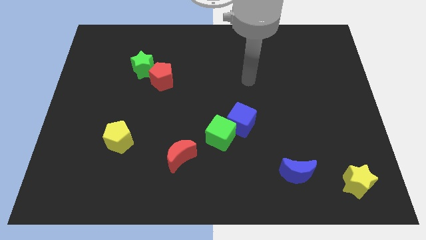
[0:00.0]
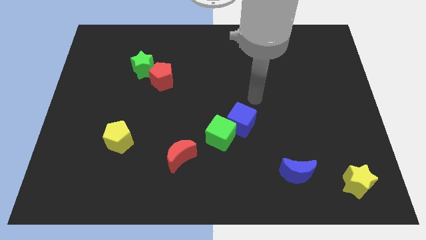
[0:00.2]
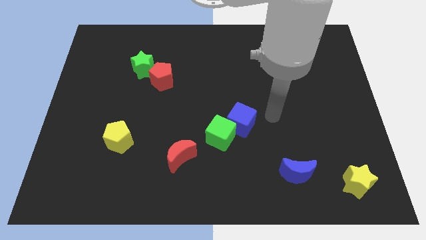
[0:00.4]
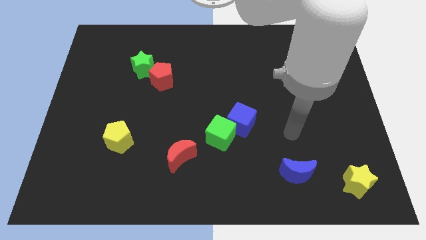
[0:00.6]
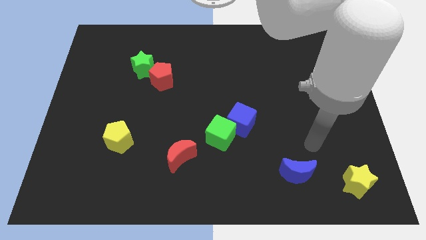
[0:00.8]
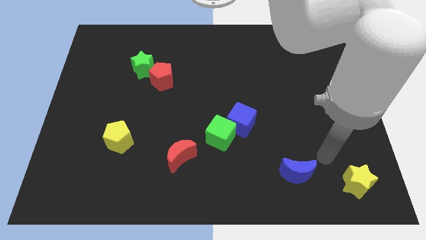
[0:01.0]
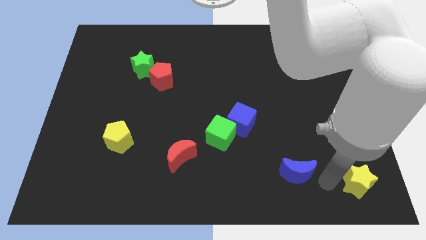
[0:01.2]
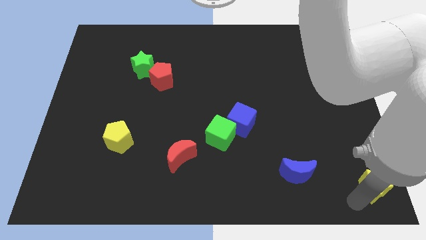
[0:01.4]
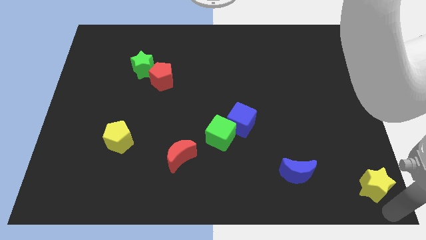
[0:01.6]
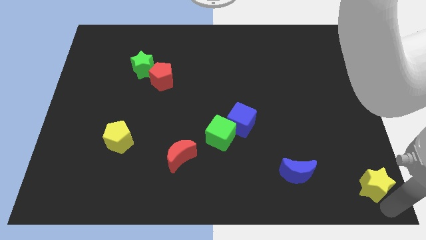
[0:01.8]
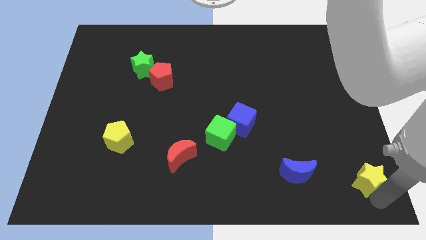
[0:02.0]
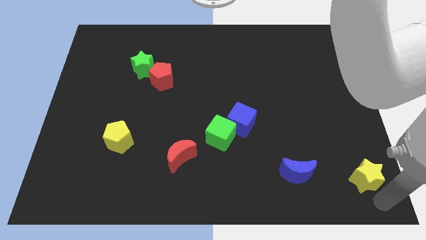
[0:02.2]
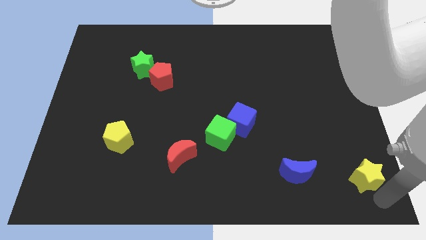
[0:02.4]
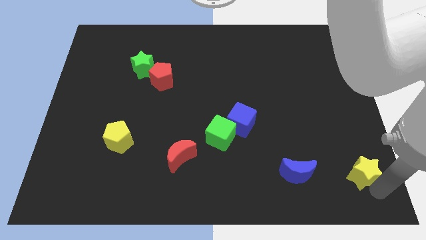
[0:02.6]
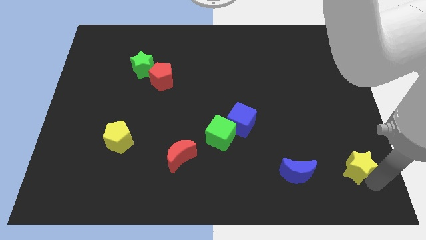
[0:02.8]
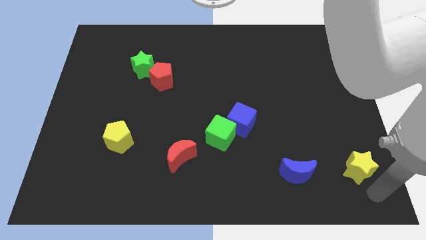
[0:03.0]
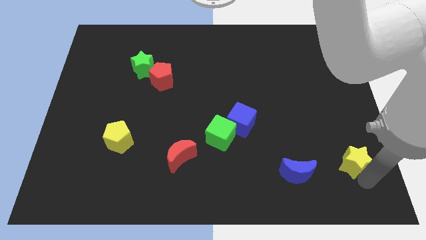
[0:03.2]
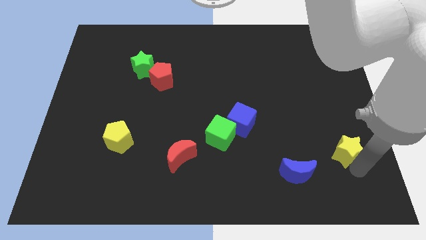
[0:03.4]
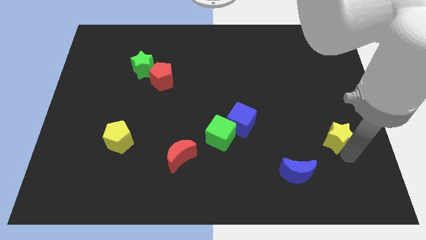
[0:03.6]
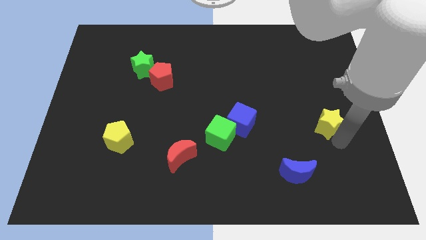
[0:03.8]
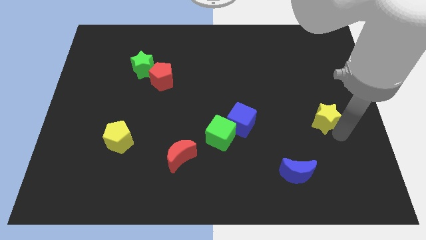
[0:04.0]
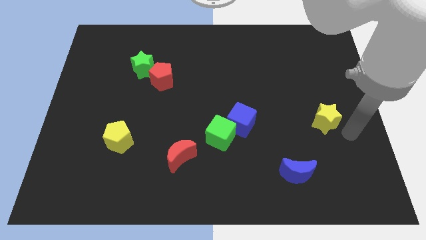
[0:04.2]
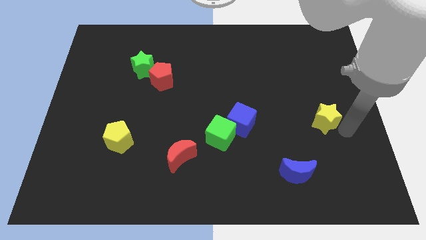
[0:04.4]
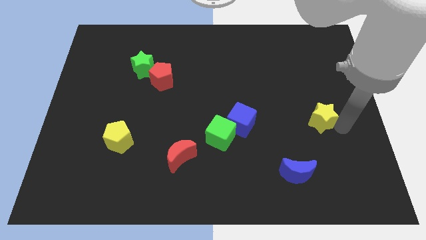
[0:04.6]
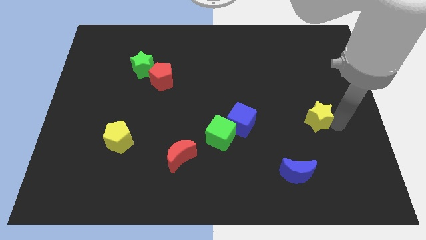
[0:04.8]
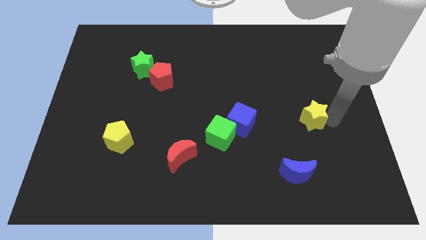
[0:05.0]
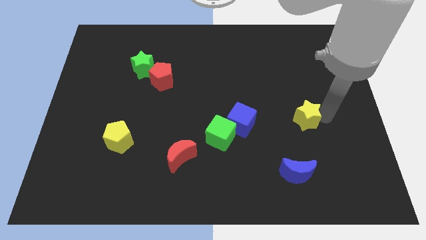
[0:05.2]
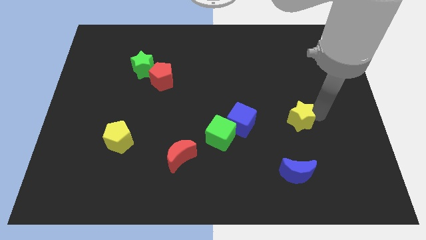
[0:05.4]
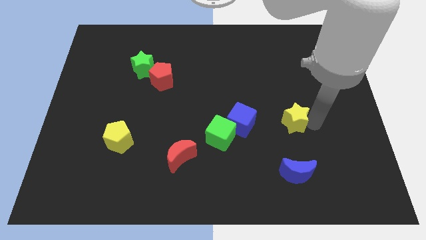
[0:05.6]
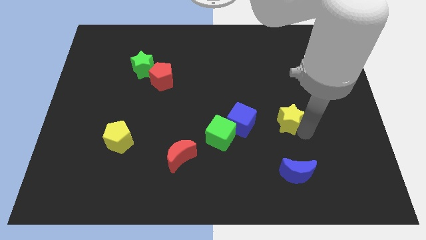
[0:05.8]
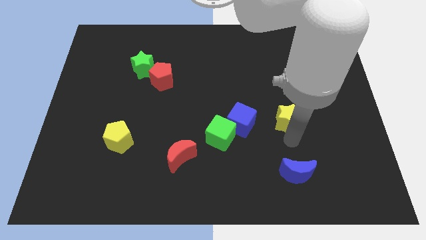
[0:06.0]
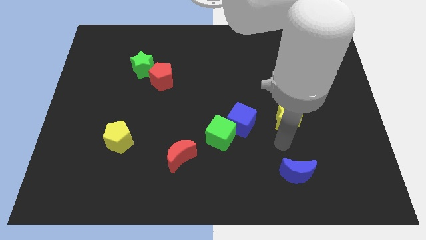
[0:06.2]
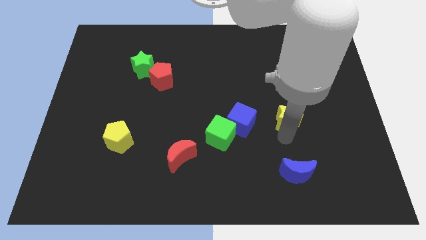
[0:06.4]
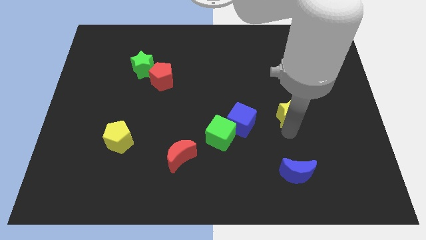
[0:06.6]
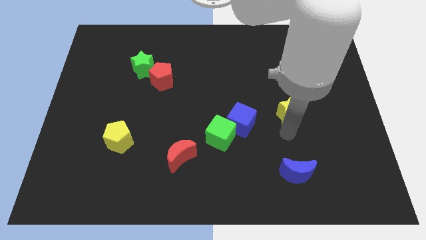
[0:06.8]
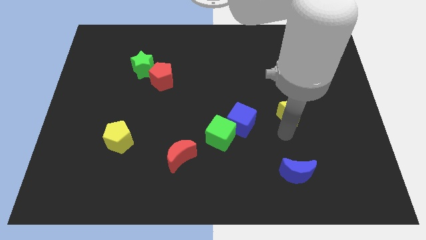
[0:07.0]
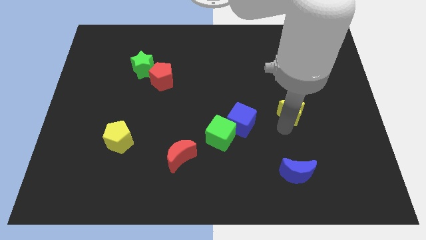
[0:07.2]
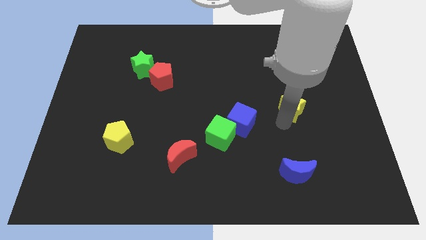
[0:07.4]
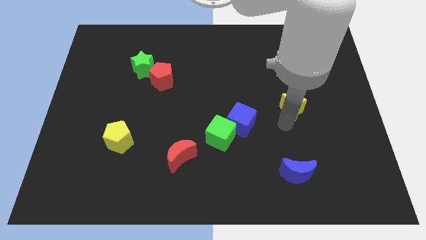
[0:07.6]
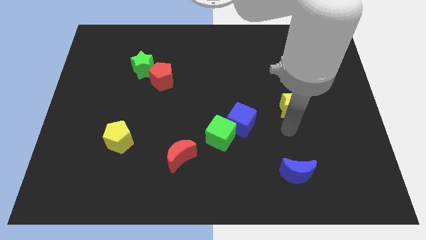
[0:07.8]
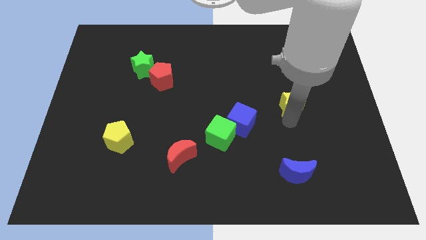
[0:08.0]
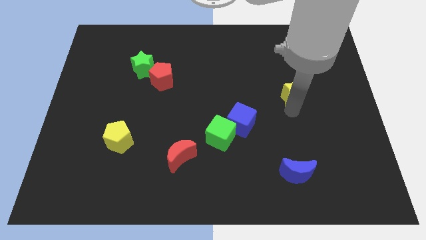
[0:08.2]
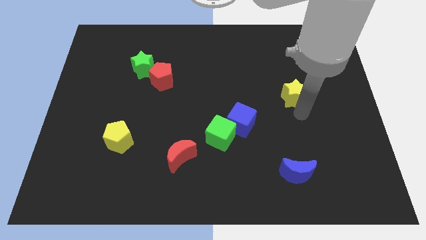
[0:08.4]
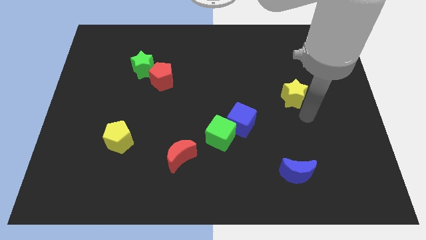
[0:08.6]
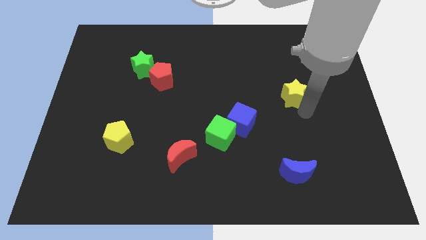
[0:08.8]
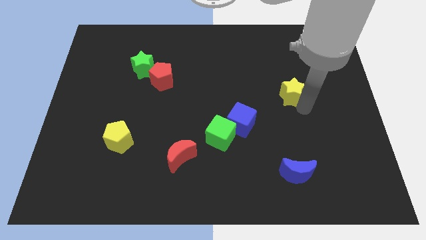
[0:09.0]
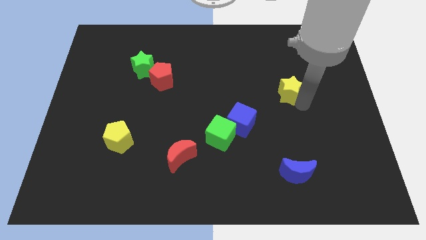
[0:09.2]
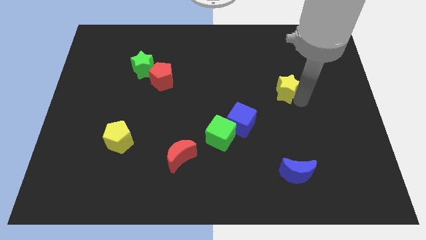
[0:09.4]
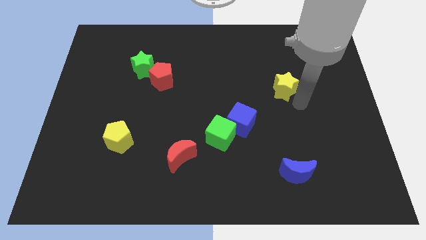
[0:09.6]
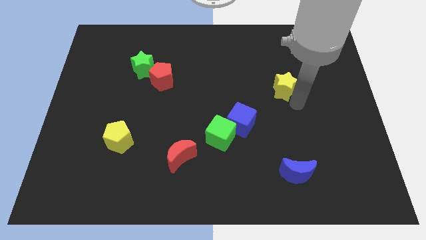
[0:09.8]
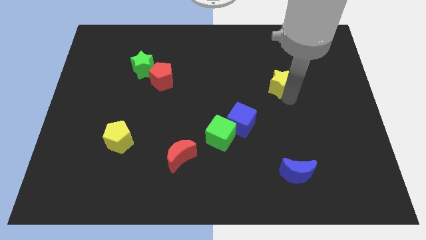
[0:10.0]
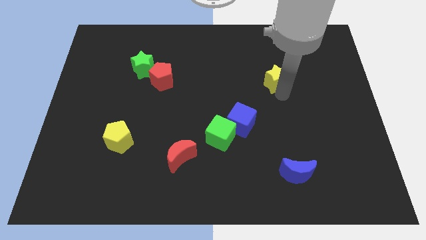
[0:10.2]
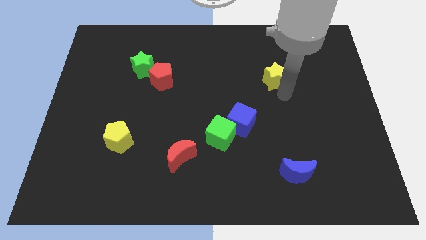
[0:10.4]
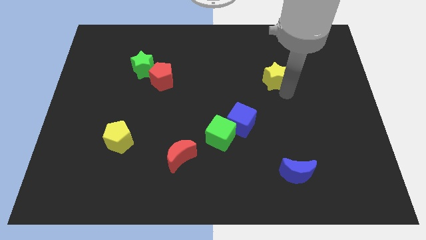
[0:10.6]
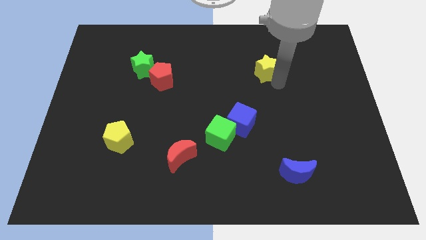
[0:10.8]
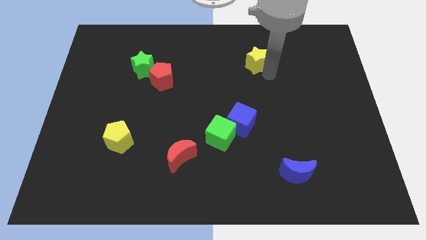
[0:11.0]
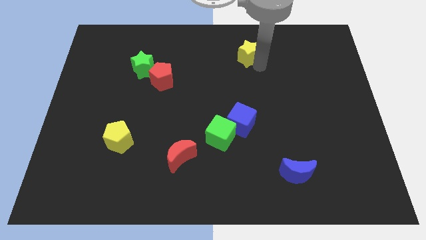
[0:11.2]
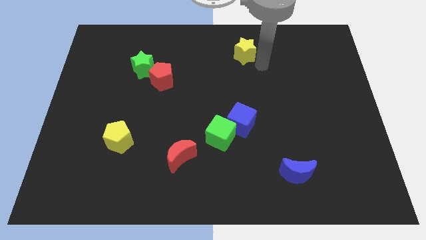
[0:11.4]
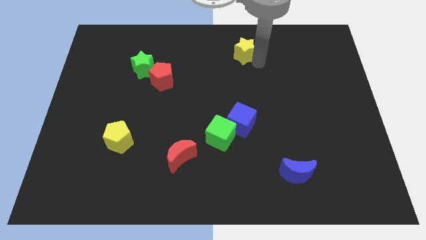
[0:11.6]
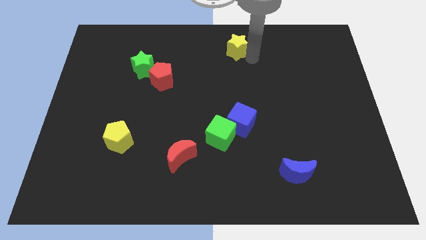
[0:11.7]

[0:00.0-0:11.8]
move the yellow star to the top side

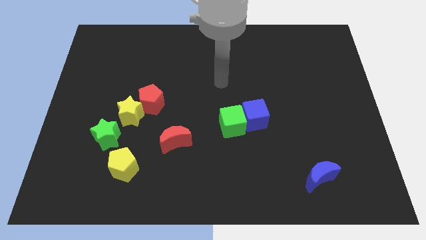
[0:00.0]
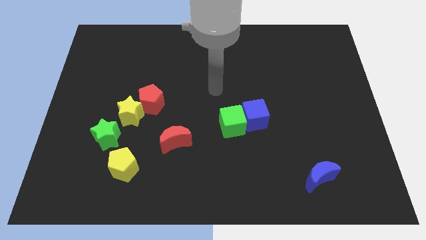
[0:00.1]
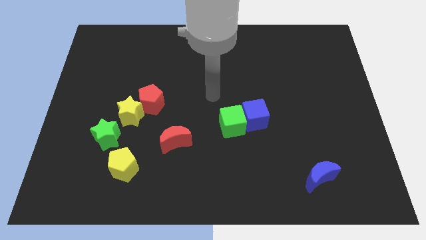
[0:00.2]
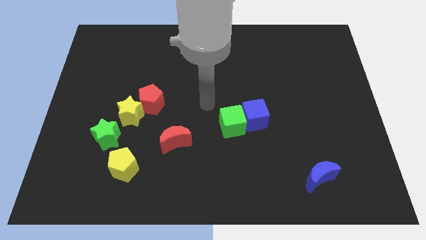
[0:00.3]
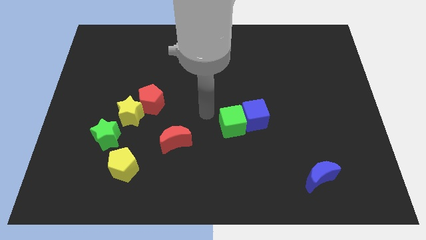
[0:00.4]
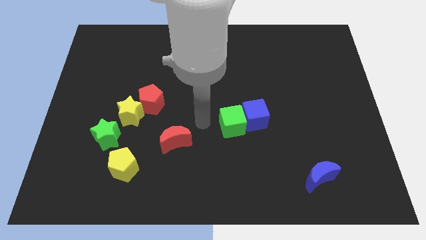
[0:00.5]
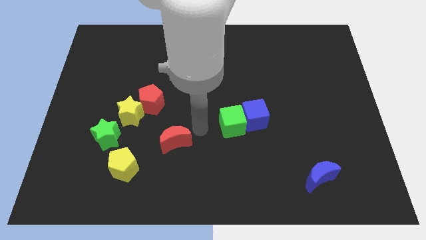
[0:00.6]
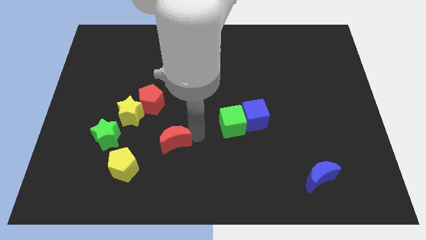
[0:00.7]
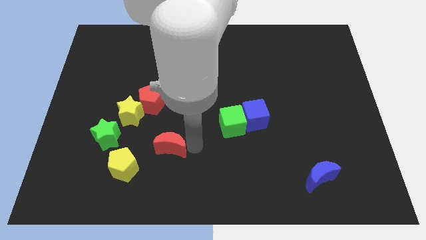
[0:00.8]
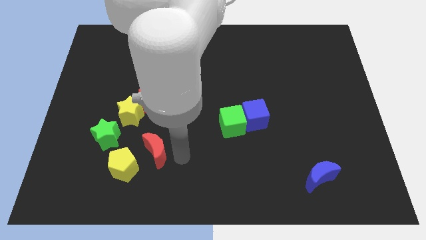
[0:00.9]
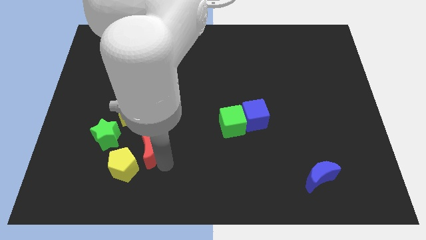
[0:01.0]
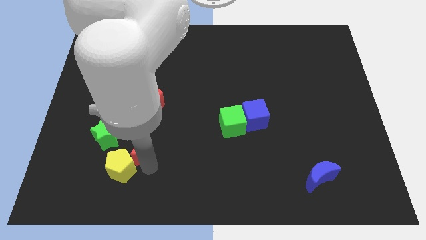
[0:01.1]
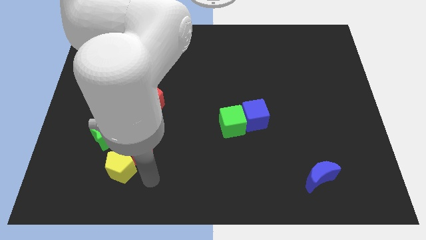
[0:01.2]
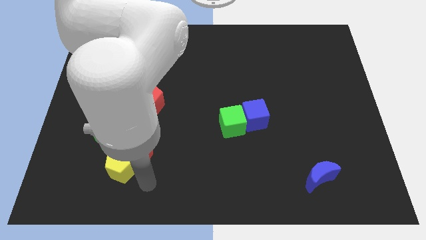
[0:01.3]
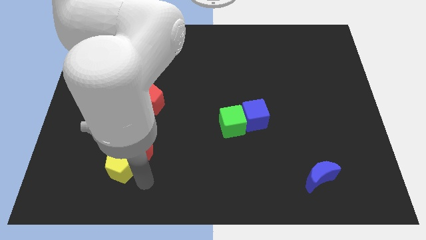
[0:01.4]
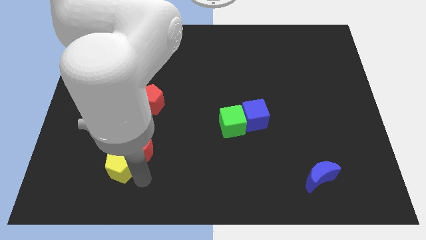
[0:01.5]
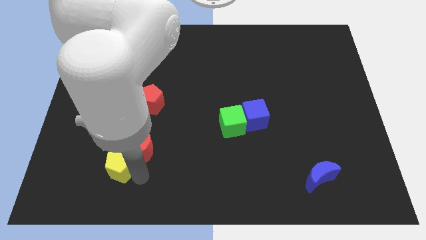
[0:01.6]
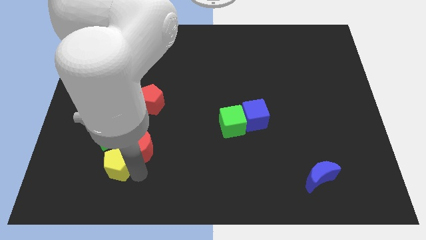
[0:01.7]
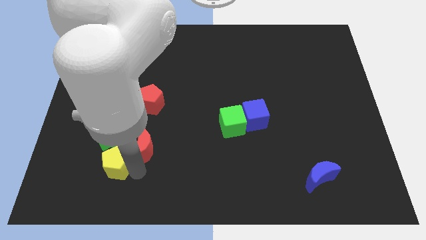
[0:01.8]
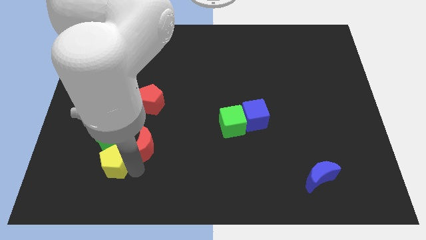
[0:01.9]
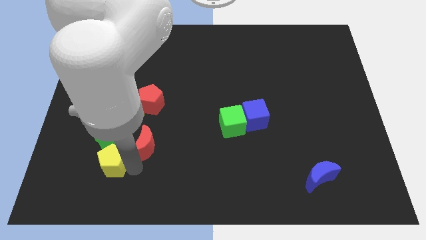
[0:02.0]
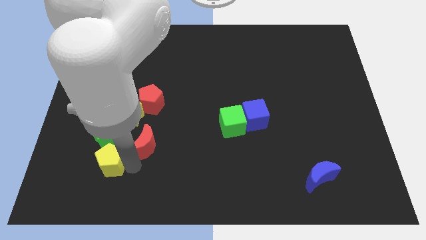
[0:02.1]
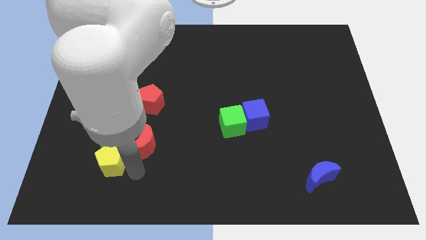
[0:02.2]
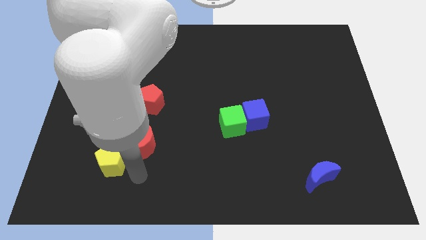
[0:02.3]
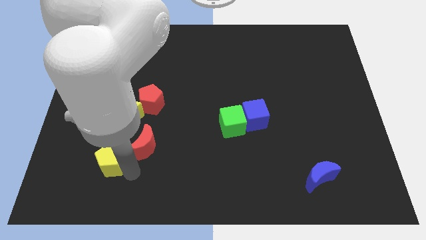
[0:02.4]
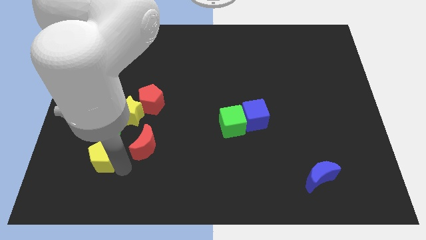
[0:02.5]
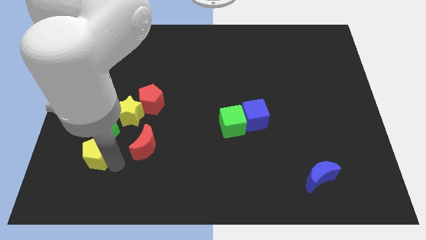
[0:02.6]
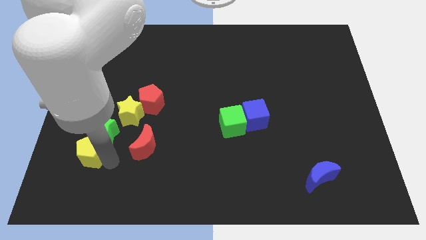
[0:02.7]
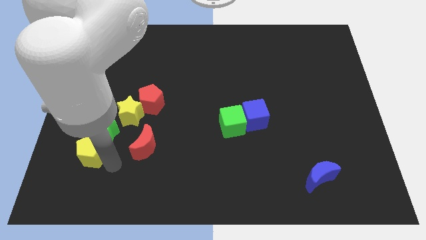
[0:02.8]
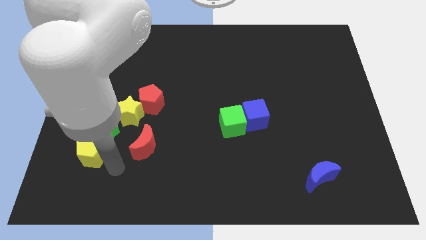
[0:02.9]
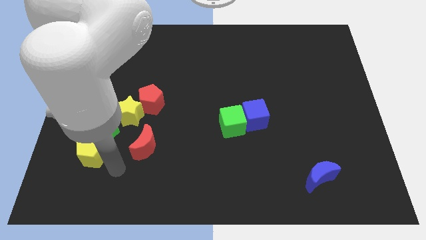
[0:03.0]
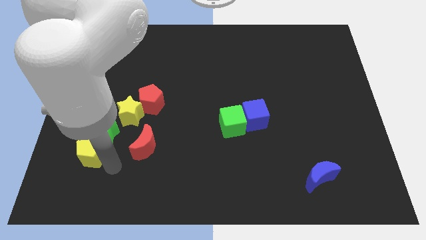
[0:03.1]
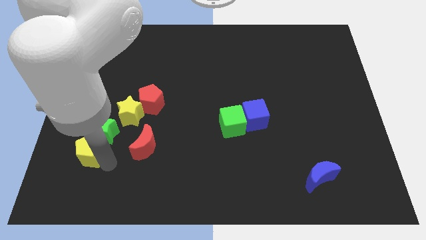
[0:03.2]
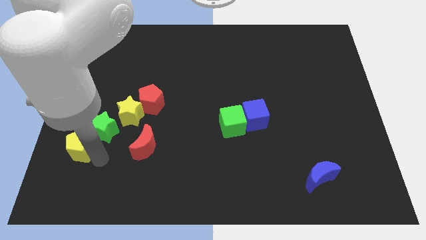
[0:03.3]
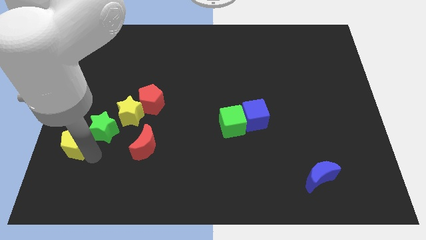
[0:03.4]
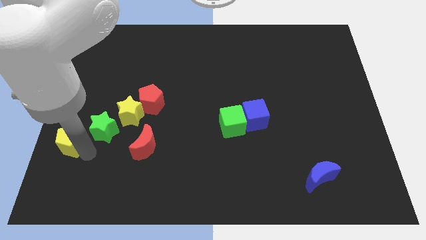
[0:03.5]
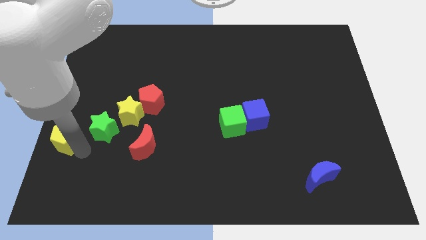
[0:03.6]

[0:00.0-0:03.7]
put the yellow pentagon to the center left
